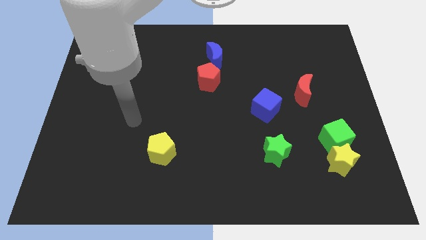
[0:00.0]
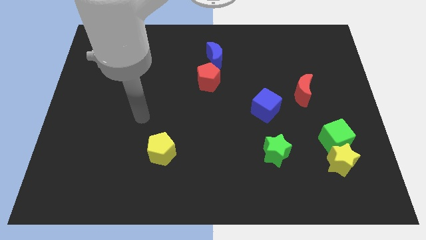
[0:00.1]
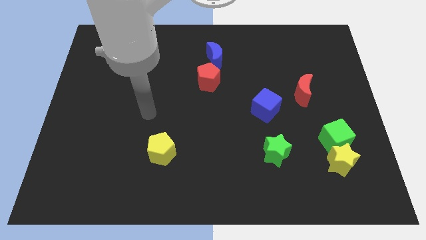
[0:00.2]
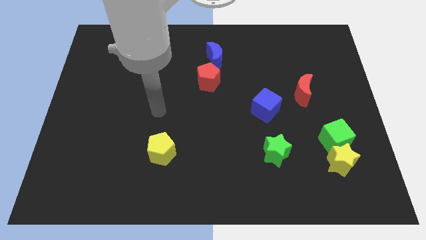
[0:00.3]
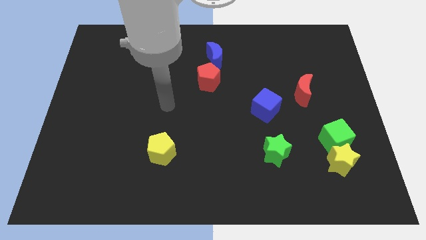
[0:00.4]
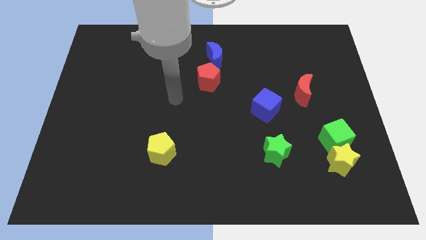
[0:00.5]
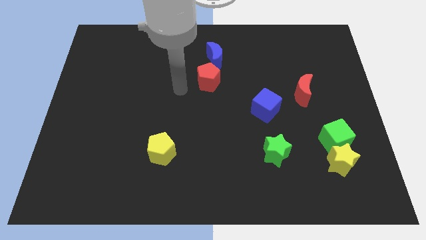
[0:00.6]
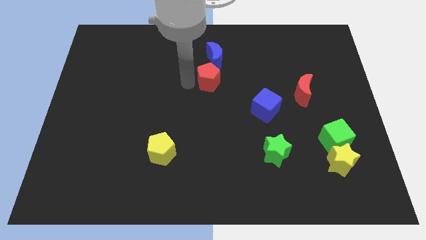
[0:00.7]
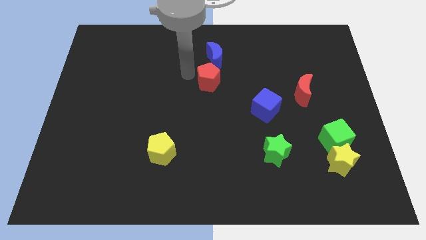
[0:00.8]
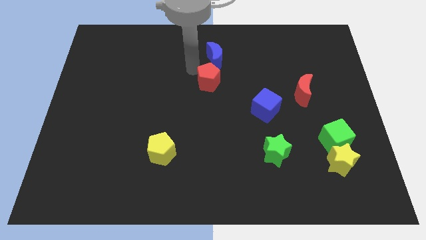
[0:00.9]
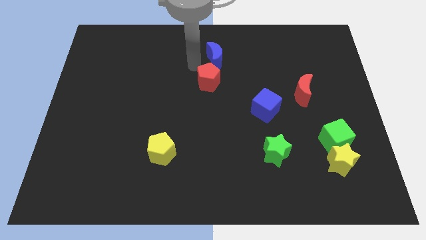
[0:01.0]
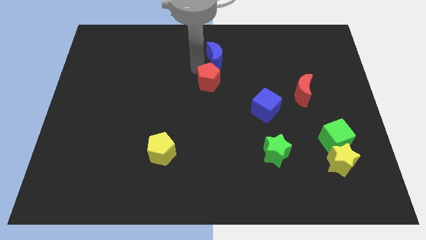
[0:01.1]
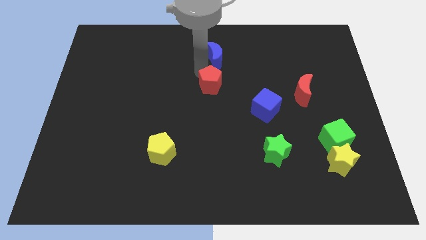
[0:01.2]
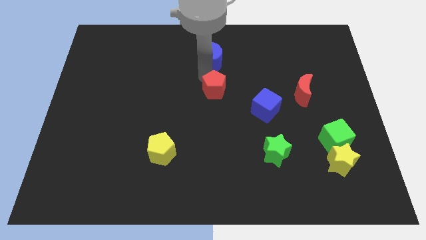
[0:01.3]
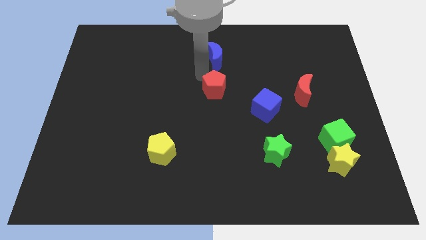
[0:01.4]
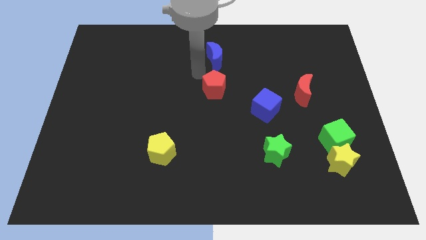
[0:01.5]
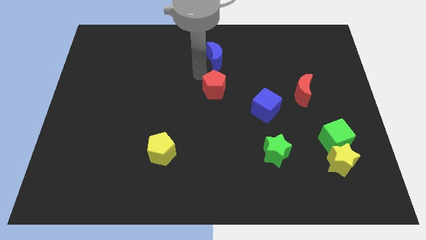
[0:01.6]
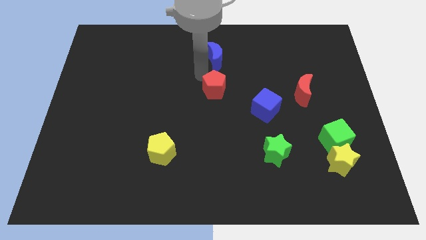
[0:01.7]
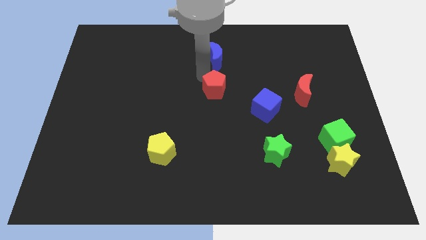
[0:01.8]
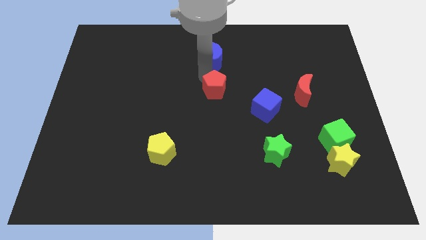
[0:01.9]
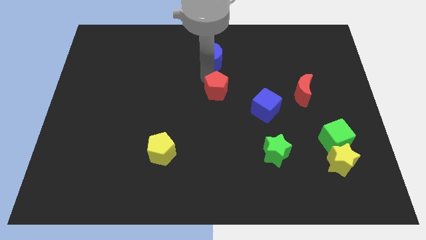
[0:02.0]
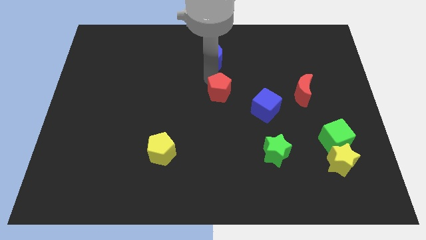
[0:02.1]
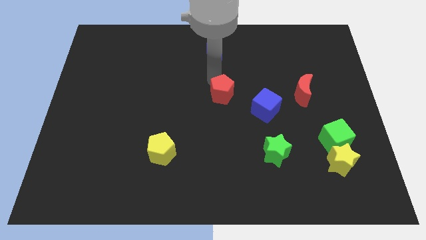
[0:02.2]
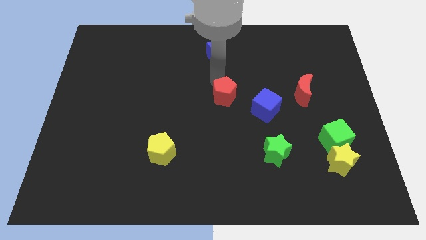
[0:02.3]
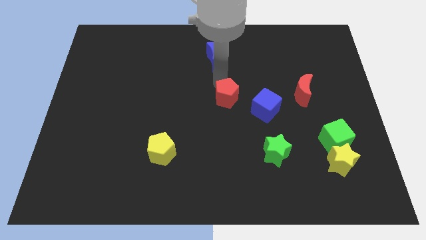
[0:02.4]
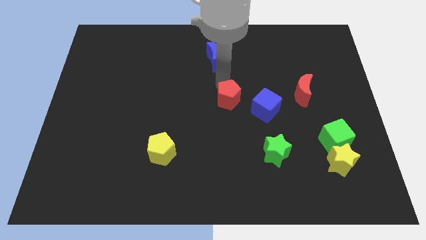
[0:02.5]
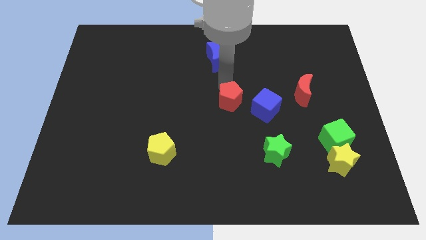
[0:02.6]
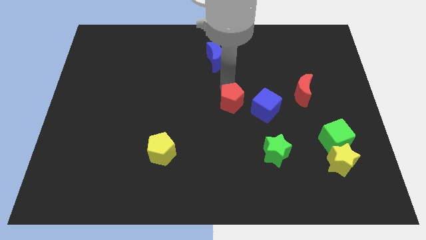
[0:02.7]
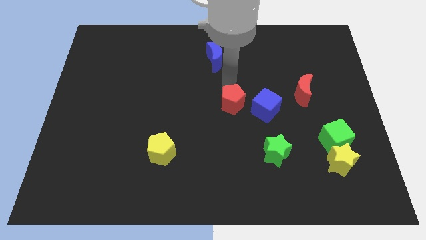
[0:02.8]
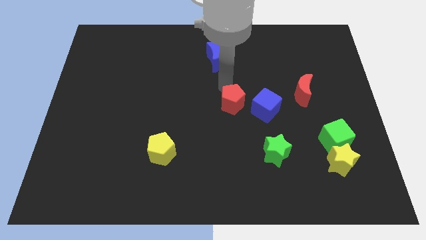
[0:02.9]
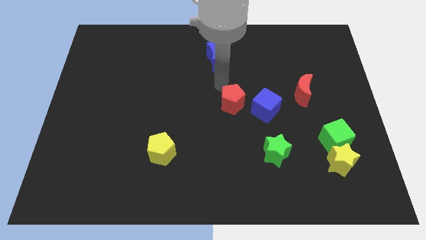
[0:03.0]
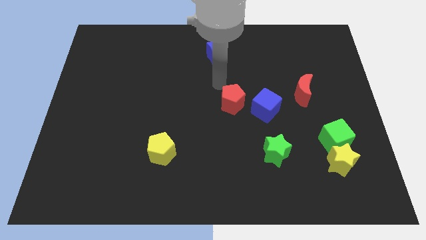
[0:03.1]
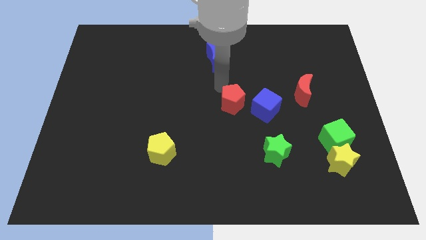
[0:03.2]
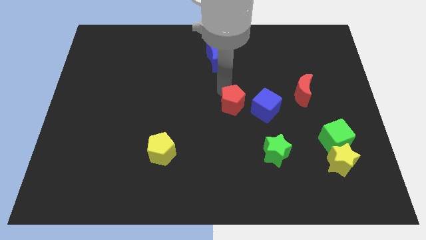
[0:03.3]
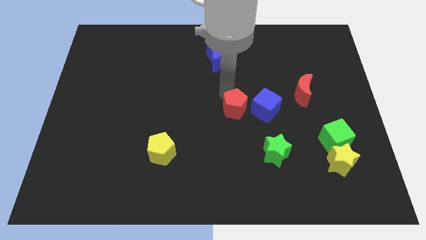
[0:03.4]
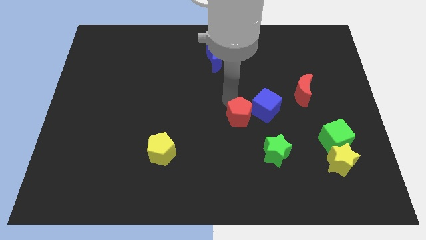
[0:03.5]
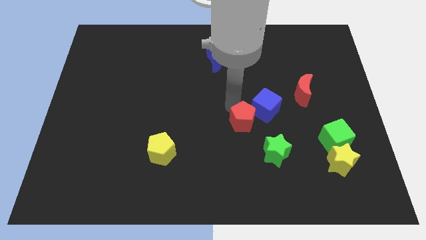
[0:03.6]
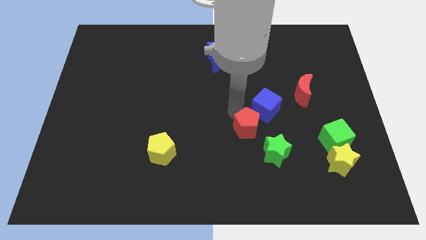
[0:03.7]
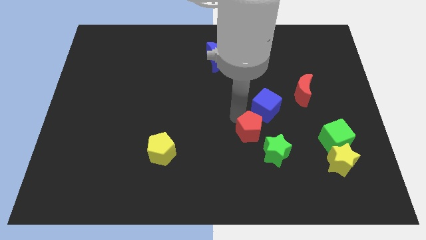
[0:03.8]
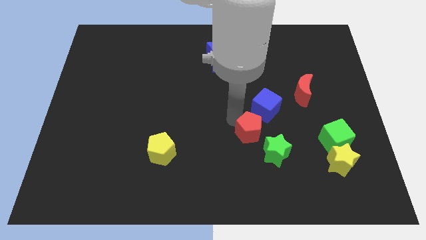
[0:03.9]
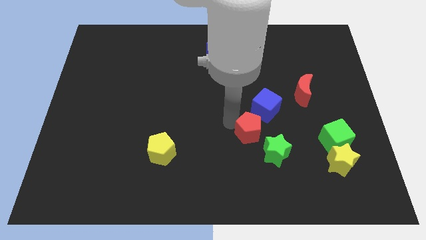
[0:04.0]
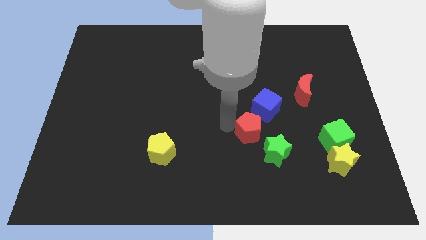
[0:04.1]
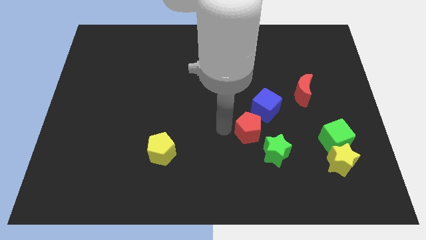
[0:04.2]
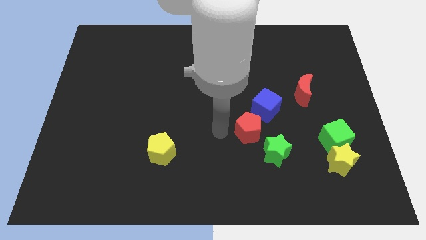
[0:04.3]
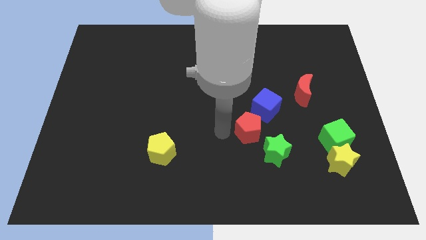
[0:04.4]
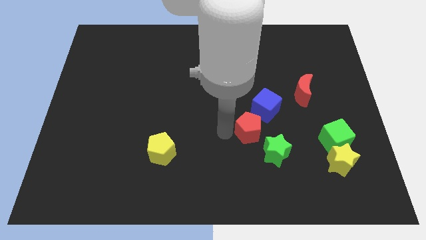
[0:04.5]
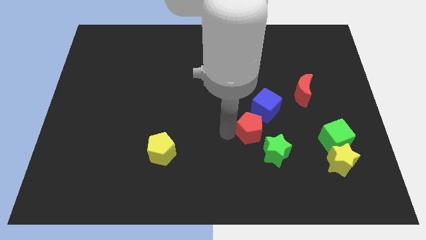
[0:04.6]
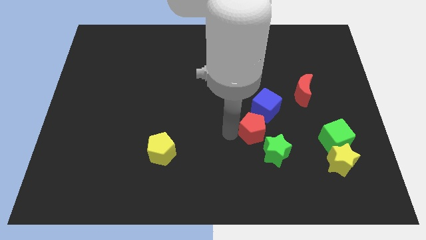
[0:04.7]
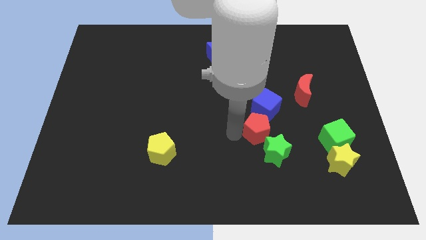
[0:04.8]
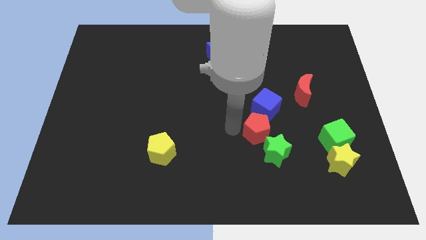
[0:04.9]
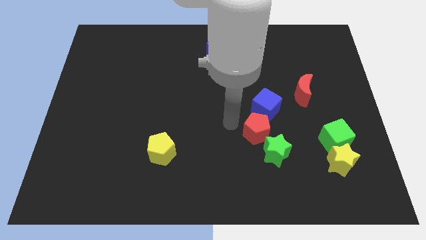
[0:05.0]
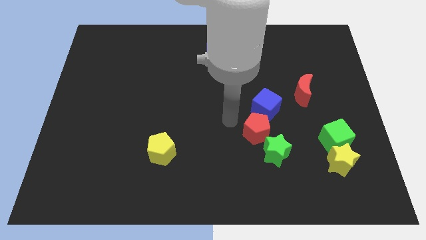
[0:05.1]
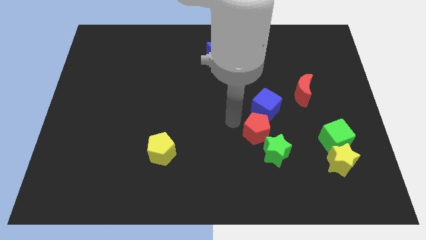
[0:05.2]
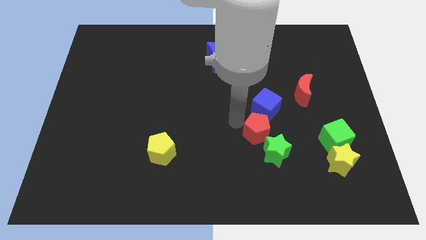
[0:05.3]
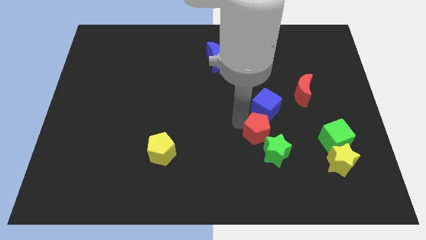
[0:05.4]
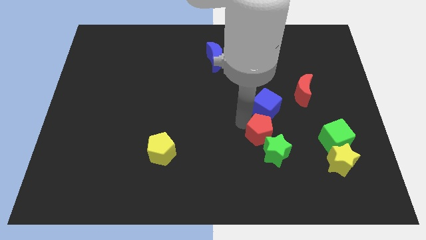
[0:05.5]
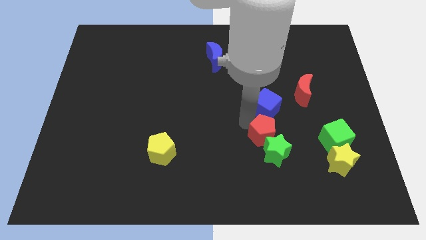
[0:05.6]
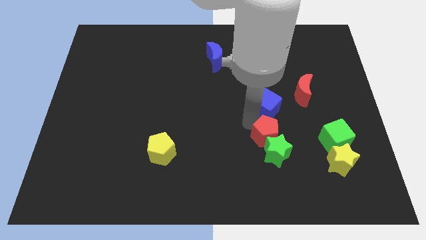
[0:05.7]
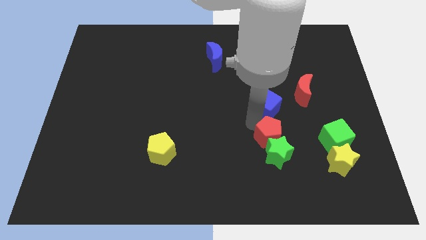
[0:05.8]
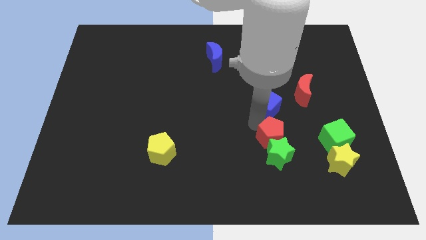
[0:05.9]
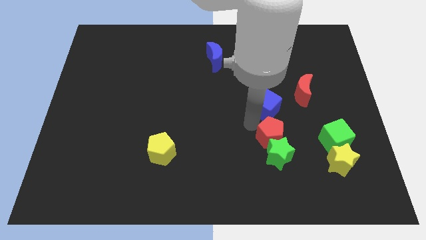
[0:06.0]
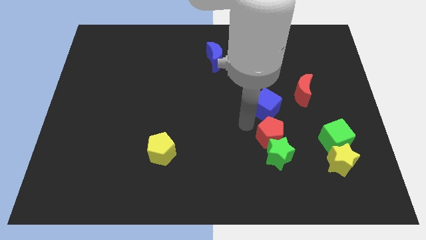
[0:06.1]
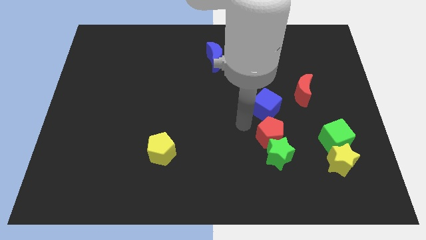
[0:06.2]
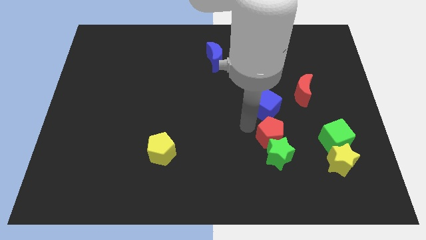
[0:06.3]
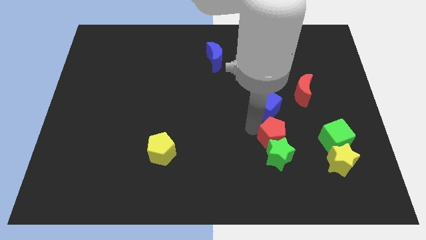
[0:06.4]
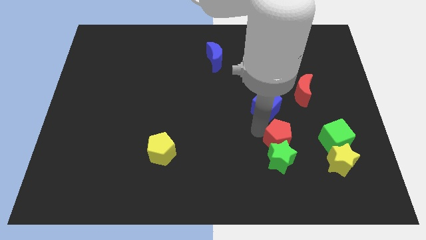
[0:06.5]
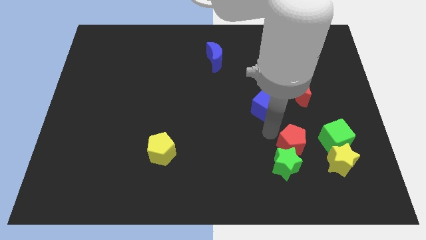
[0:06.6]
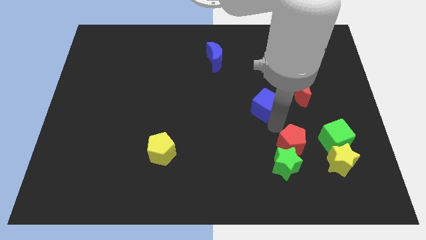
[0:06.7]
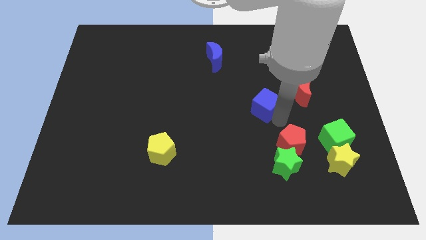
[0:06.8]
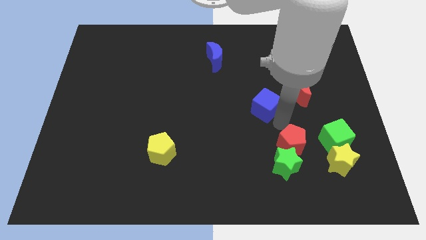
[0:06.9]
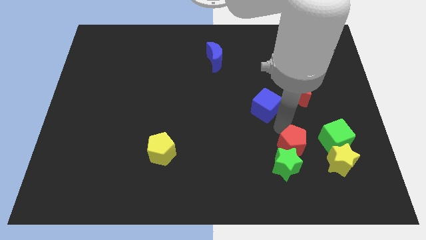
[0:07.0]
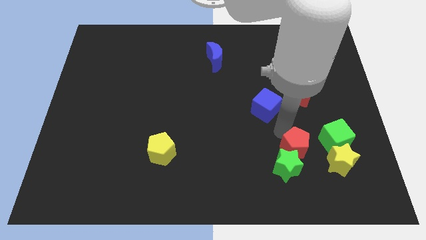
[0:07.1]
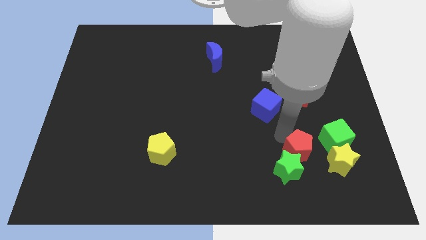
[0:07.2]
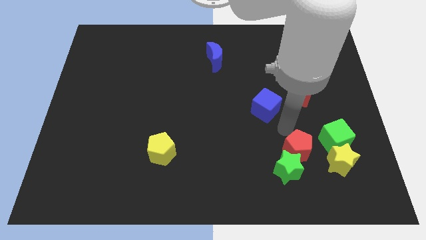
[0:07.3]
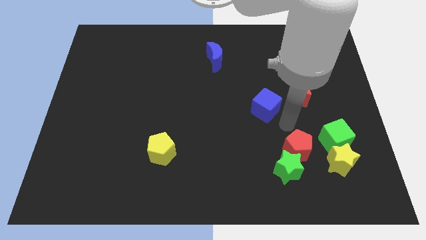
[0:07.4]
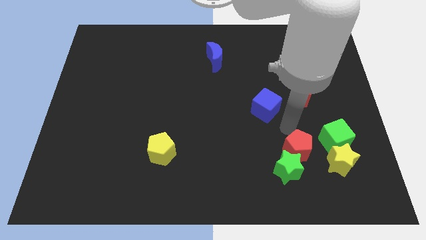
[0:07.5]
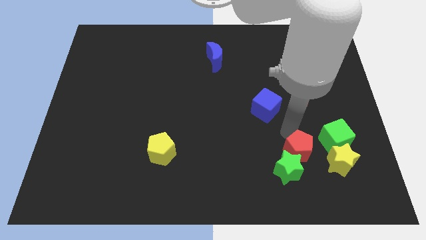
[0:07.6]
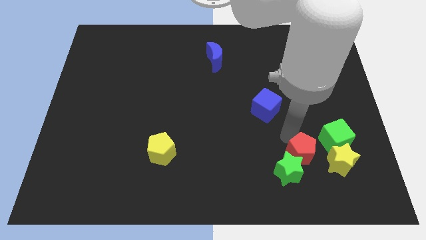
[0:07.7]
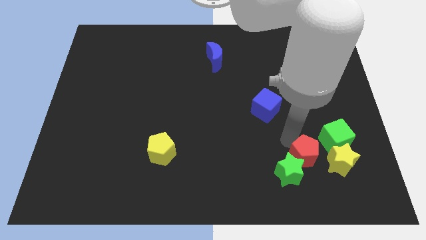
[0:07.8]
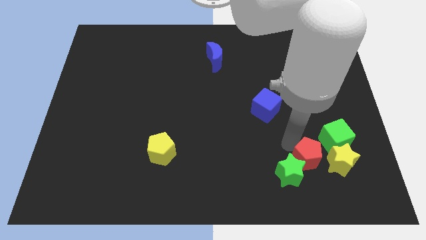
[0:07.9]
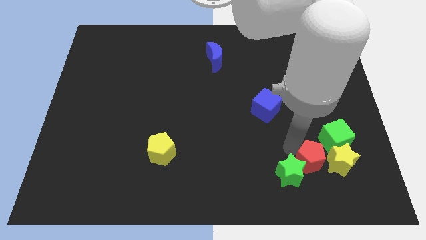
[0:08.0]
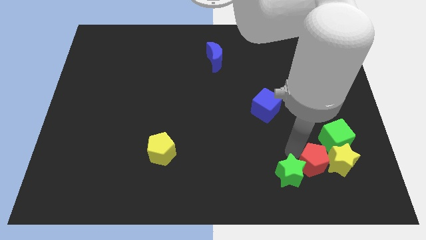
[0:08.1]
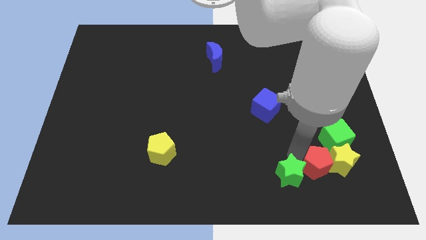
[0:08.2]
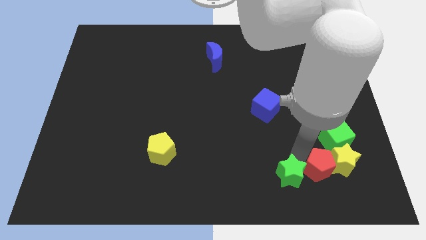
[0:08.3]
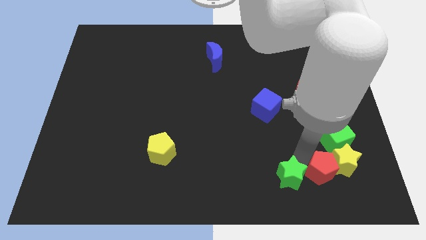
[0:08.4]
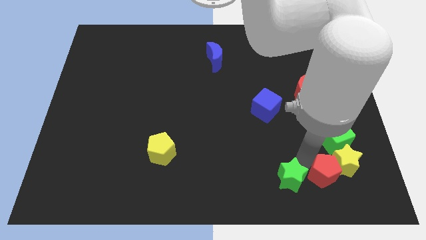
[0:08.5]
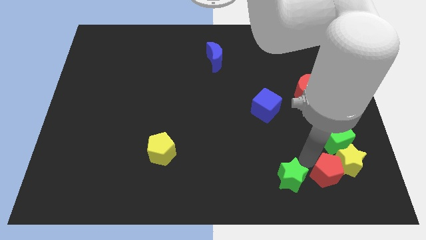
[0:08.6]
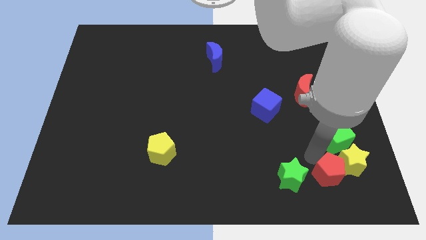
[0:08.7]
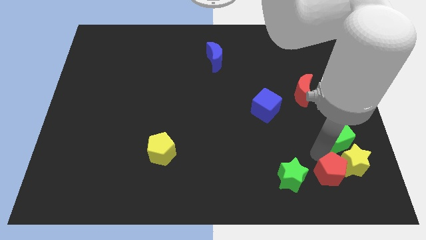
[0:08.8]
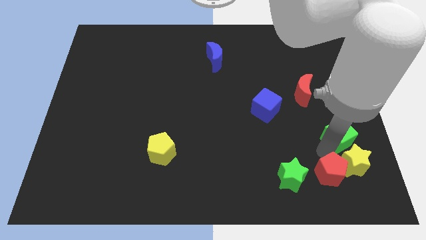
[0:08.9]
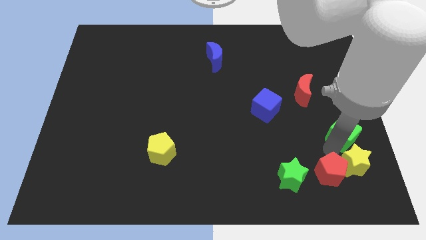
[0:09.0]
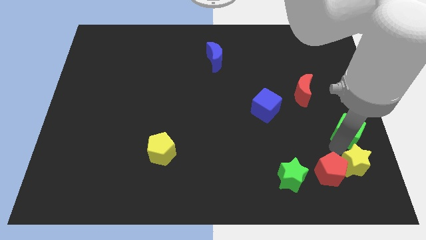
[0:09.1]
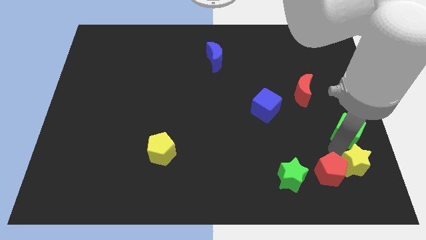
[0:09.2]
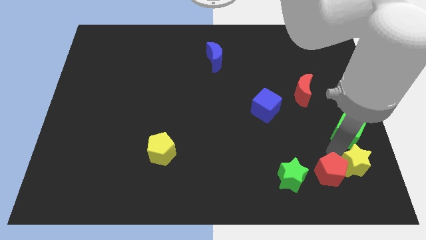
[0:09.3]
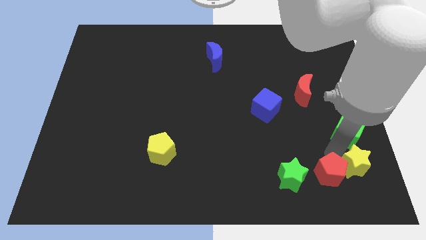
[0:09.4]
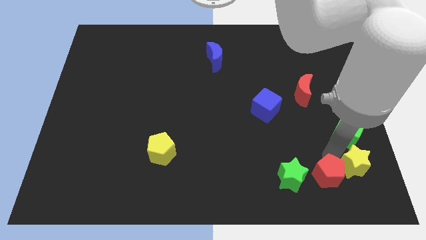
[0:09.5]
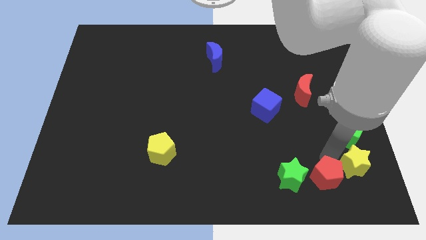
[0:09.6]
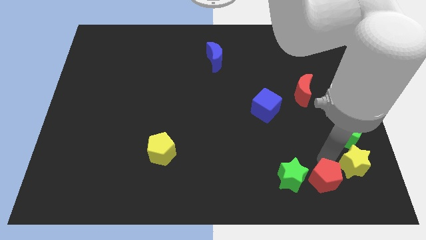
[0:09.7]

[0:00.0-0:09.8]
push the red pentagon to the bottom right side of the green star
